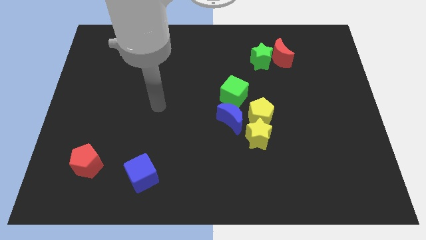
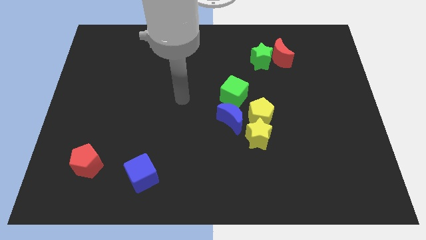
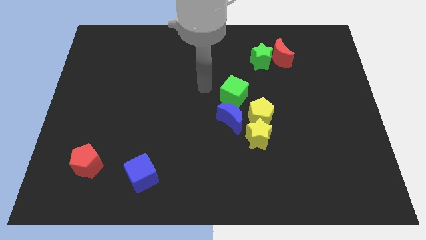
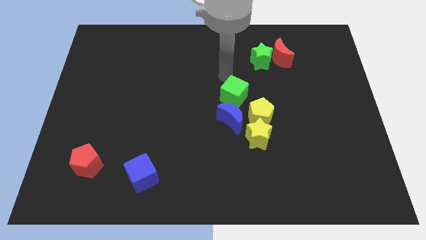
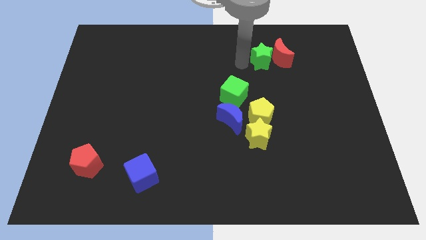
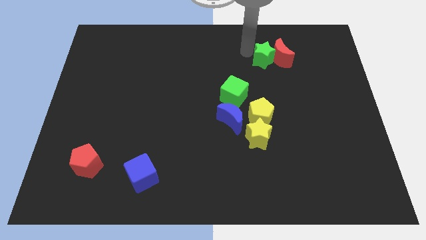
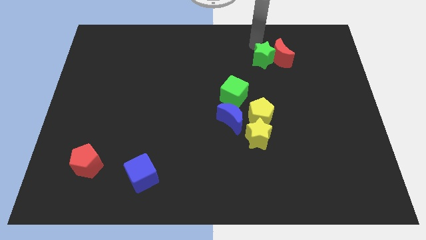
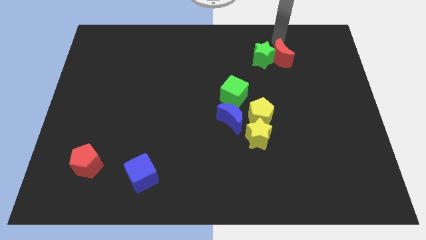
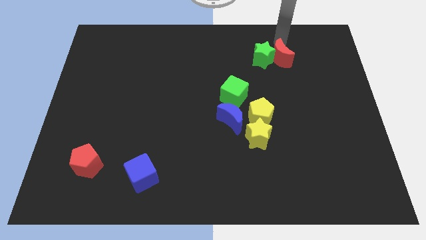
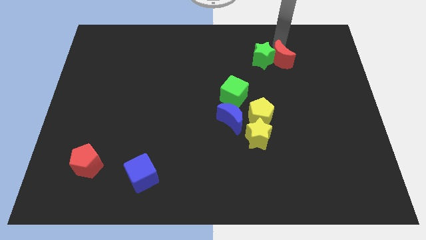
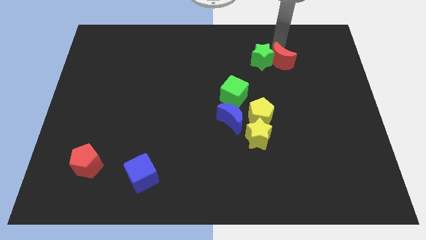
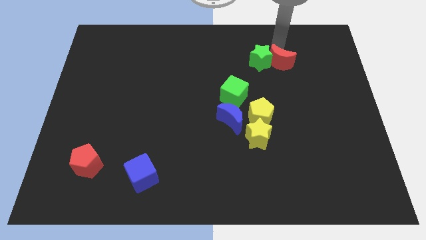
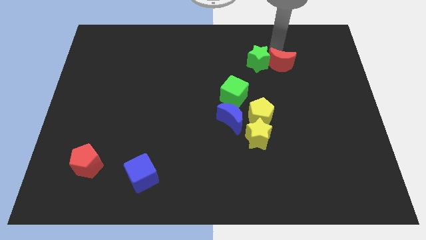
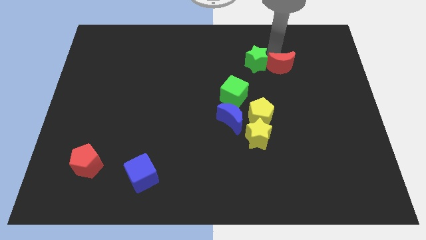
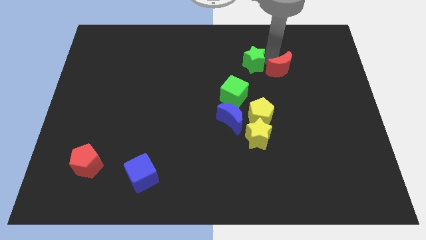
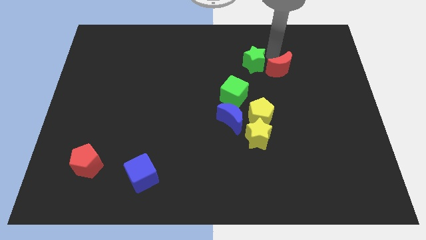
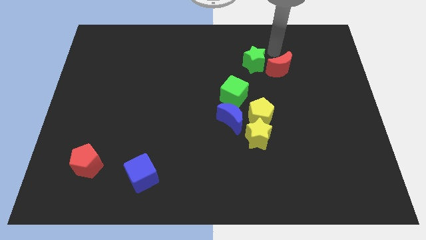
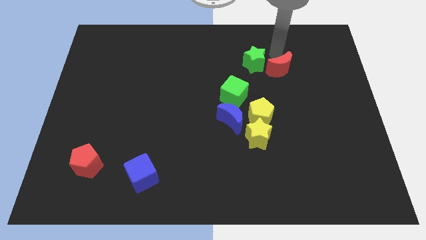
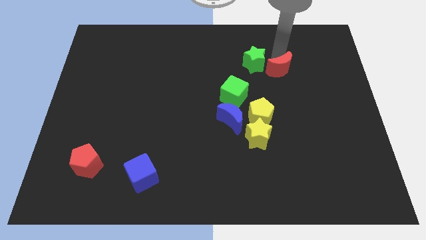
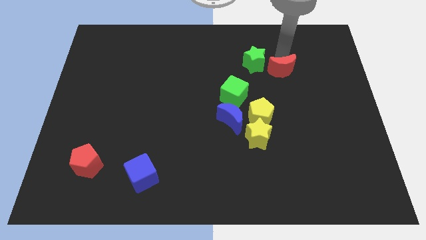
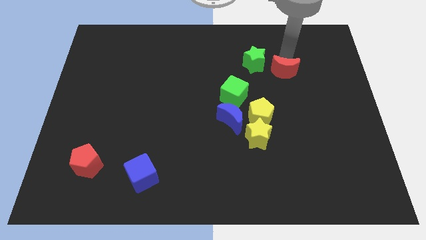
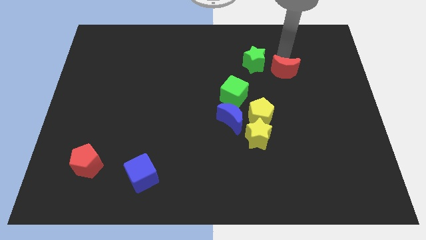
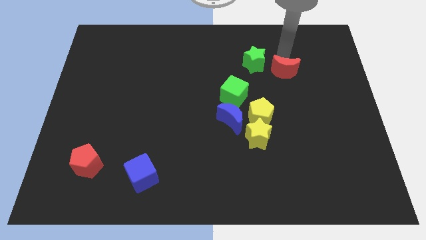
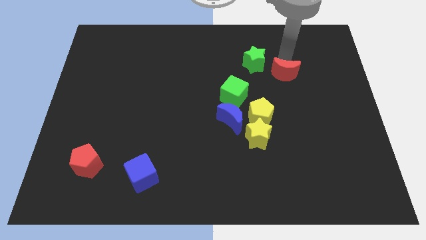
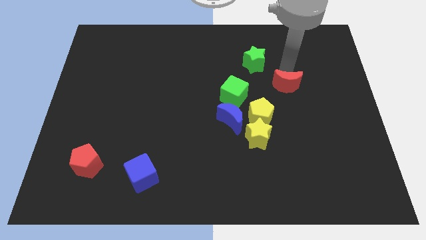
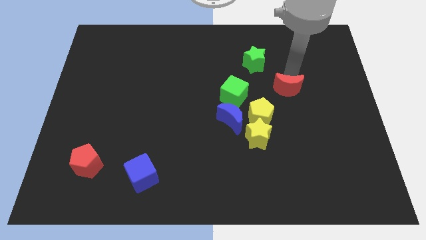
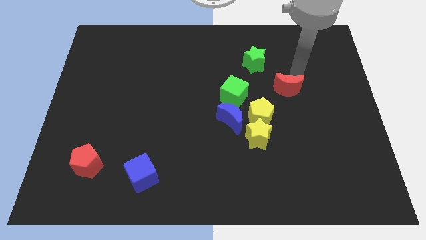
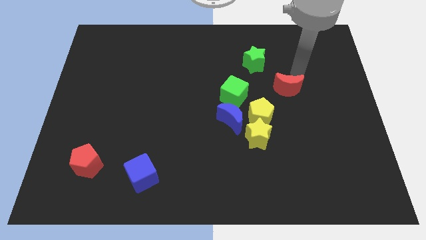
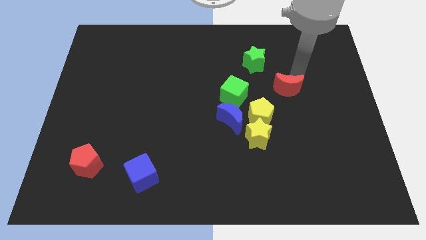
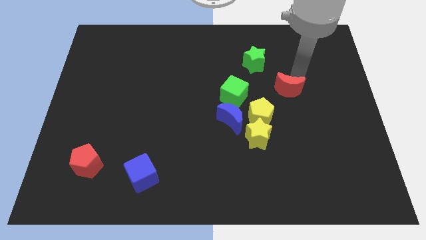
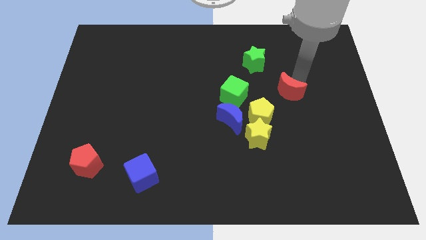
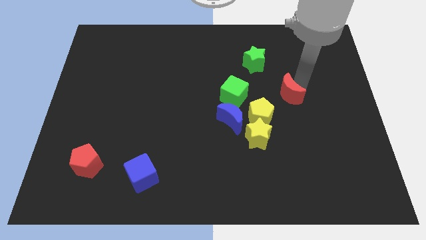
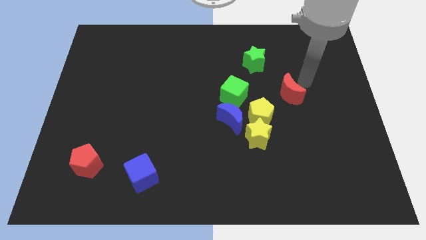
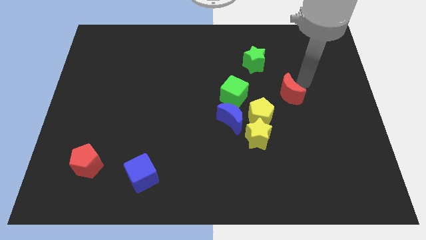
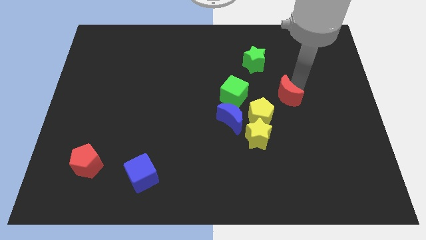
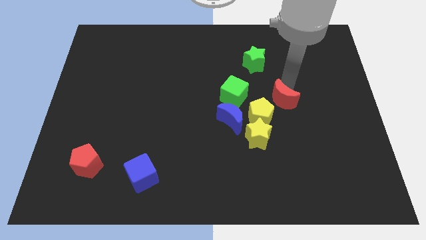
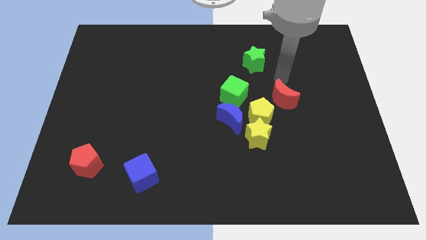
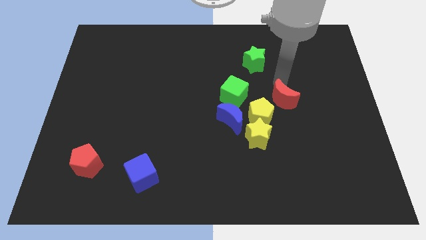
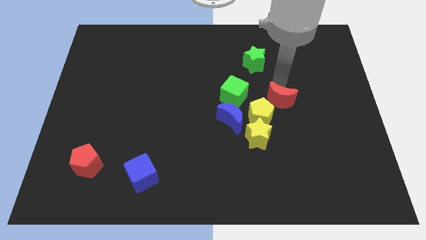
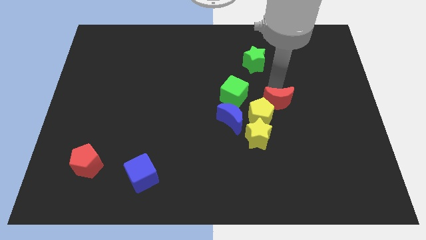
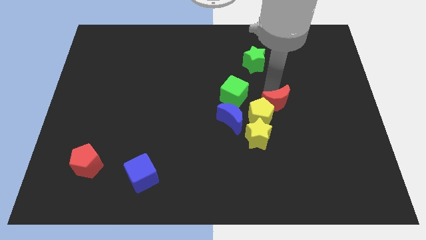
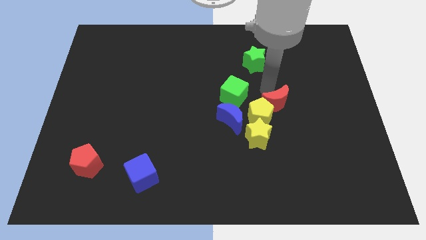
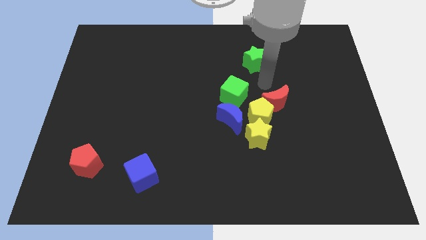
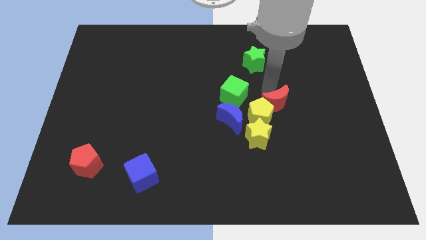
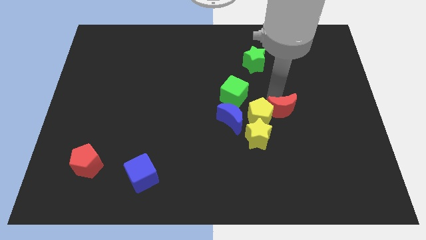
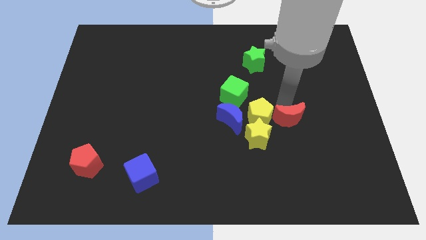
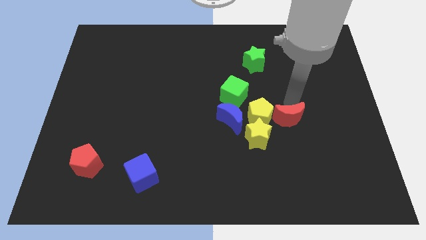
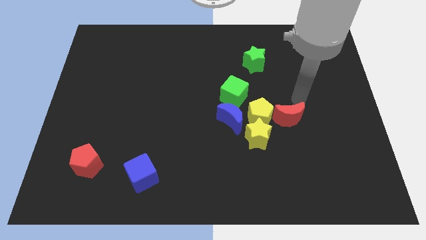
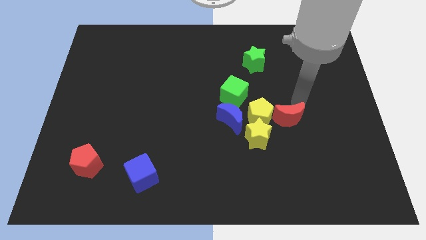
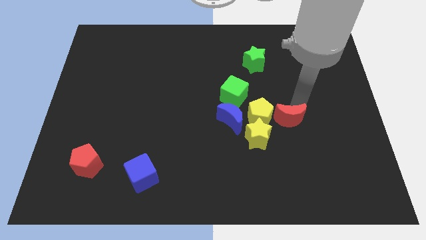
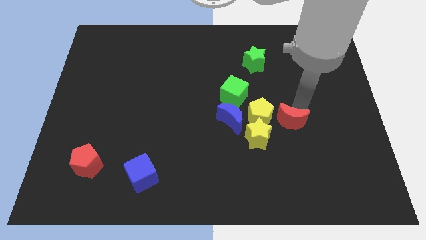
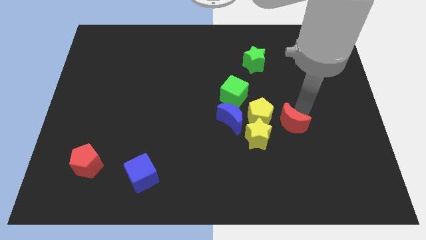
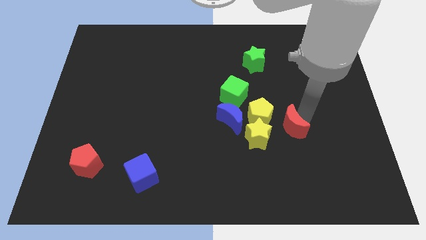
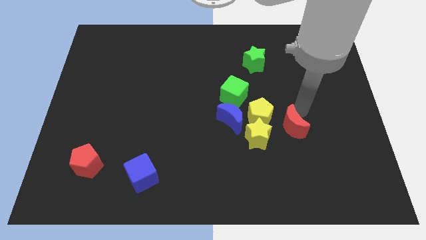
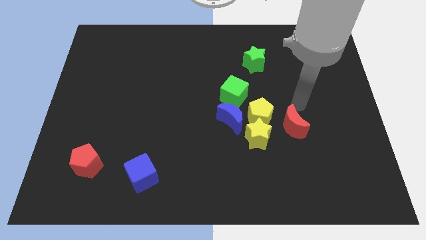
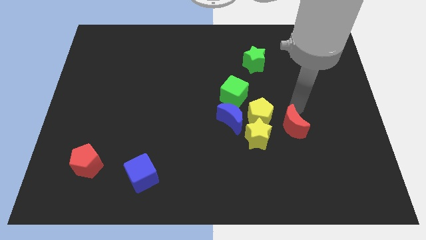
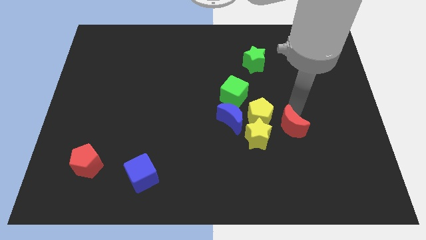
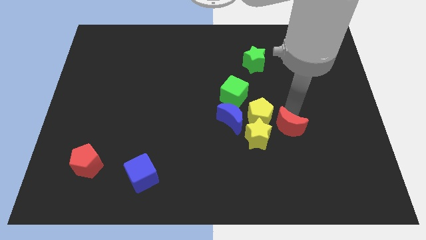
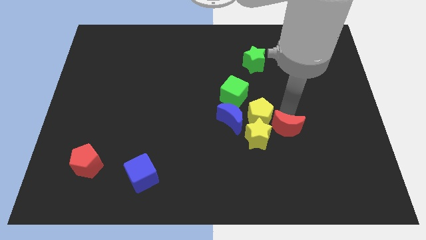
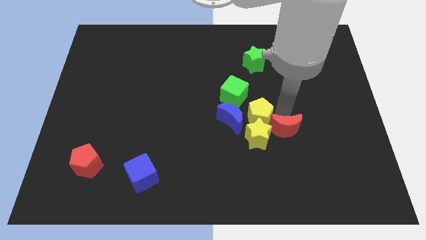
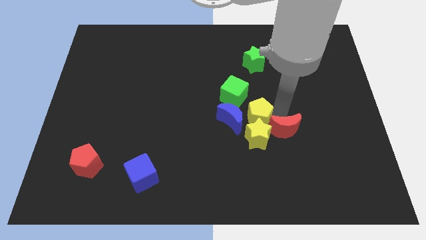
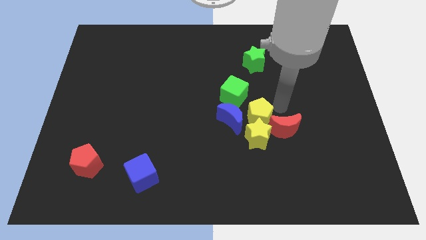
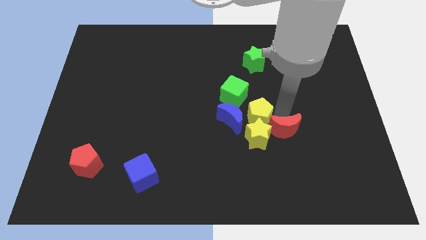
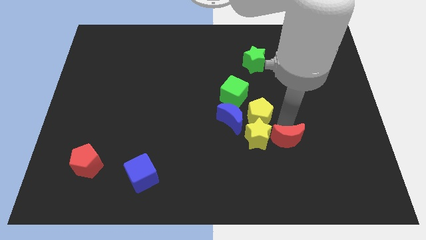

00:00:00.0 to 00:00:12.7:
slide the red moon diagonally down and to the right of the yellow star

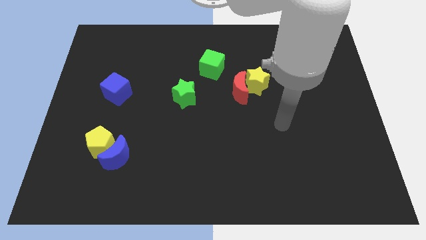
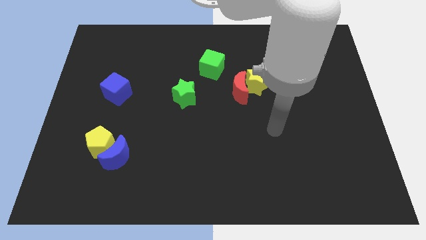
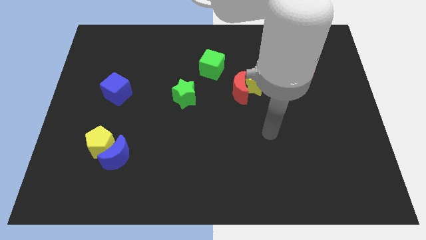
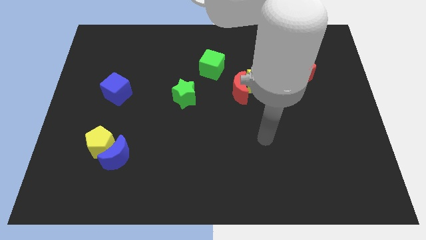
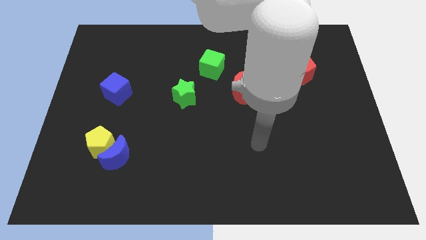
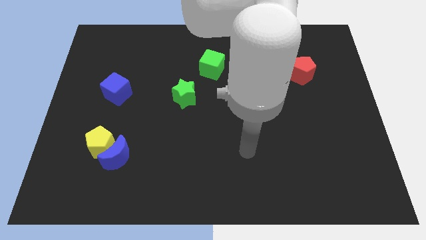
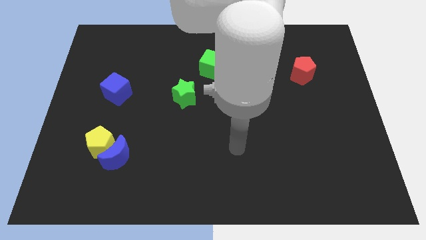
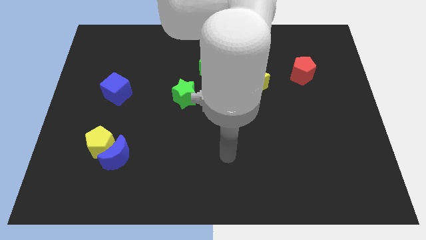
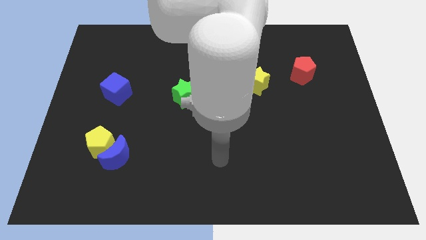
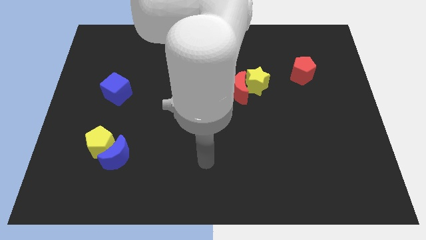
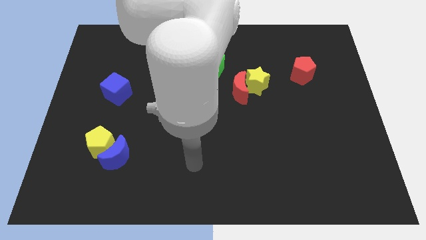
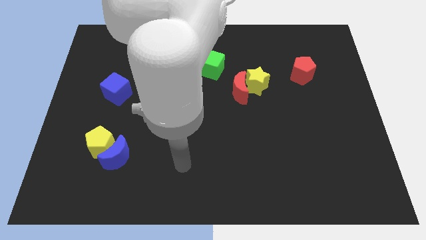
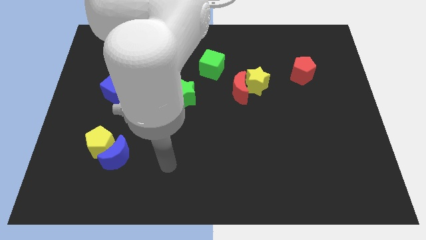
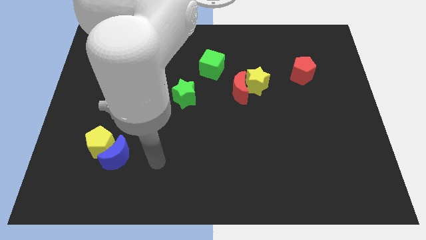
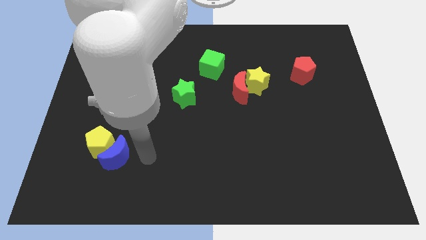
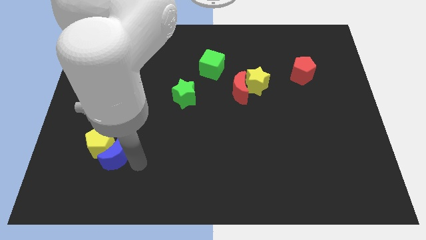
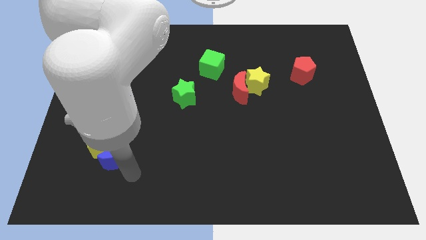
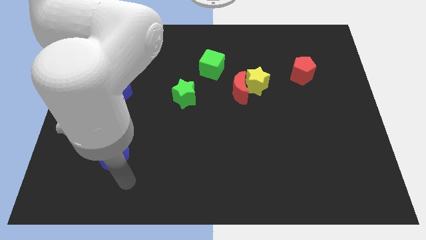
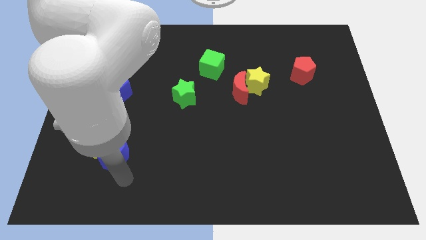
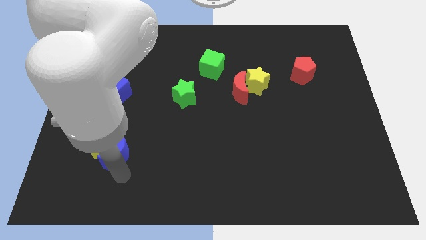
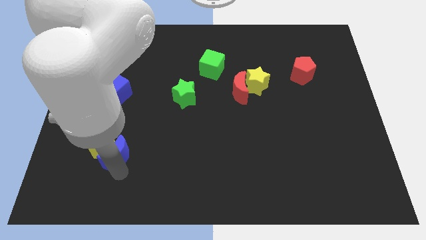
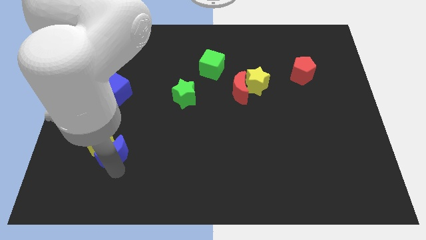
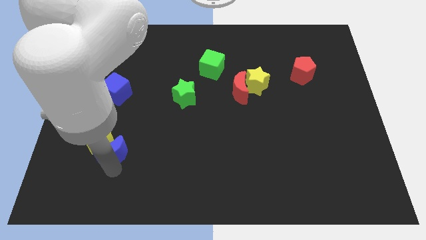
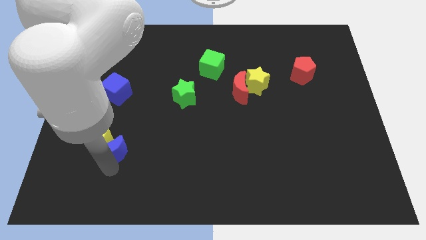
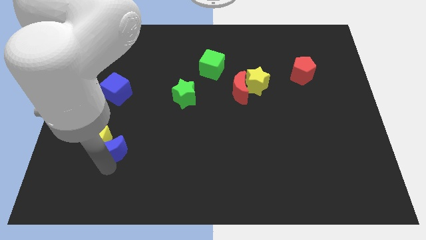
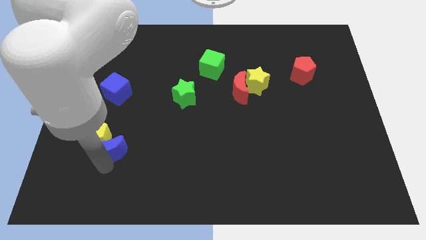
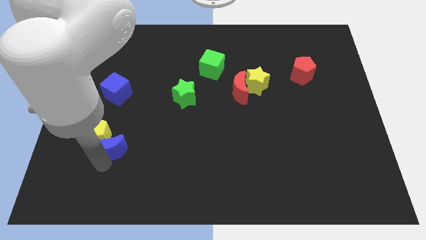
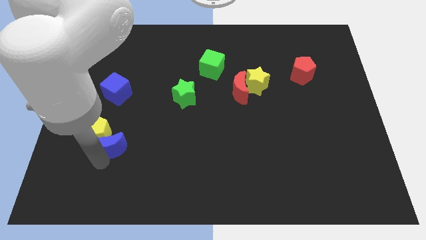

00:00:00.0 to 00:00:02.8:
move the blue moon to the bottom side of the blue cube
